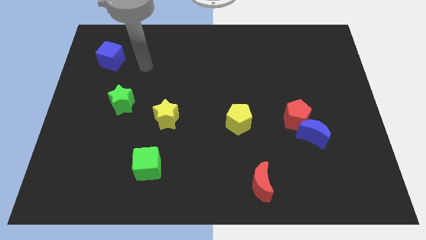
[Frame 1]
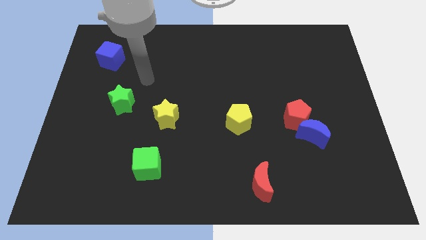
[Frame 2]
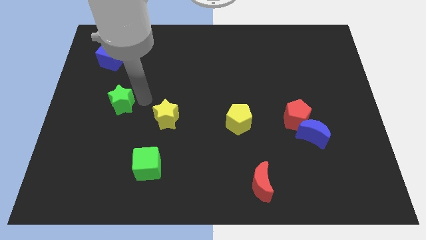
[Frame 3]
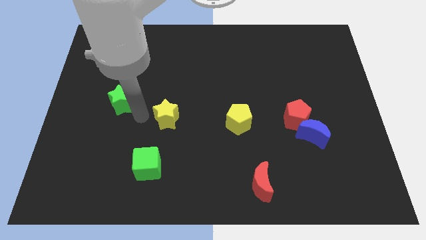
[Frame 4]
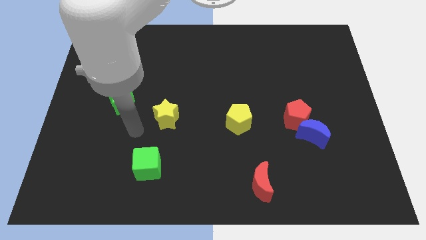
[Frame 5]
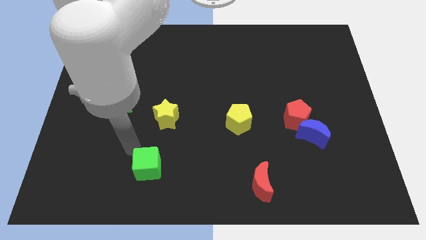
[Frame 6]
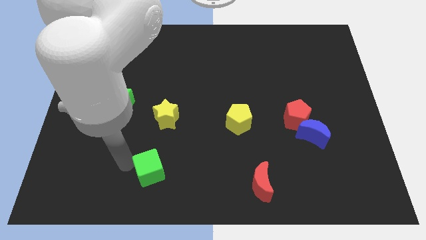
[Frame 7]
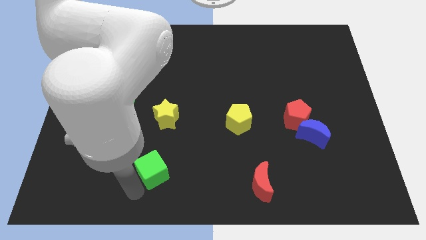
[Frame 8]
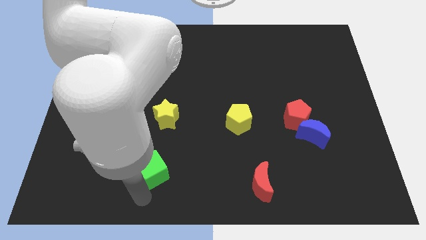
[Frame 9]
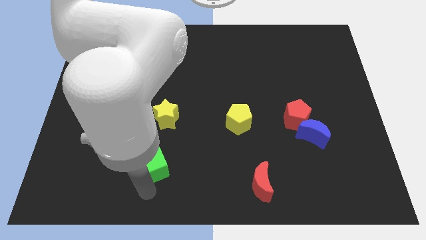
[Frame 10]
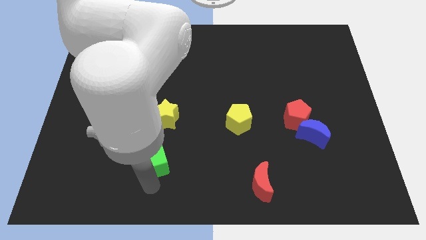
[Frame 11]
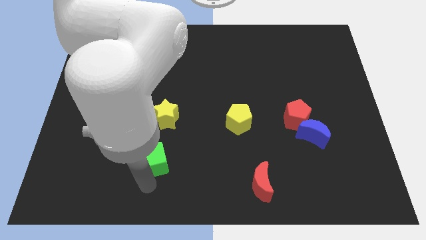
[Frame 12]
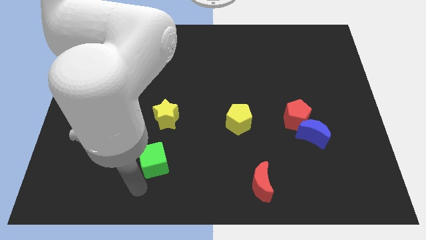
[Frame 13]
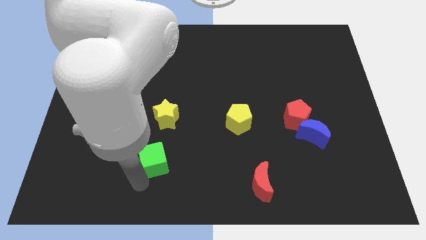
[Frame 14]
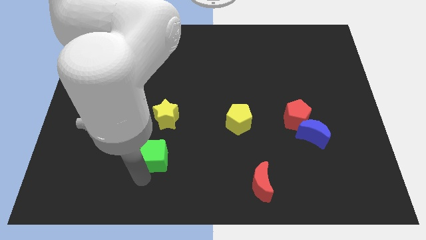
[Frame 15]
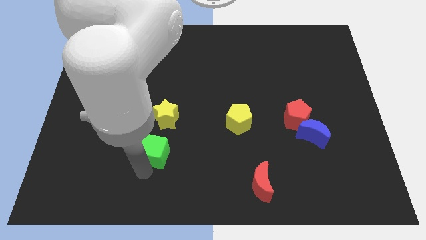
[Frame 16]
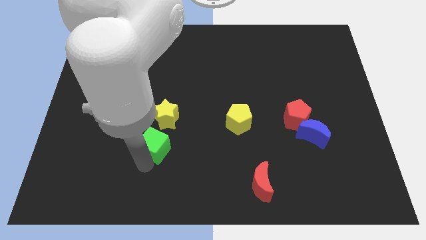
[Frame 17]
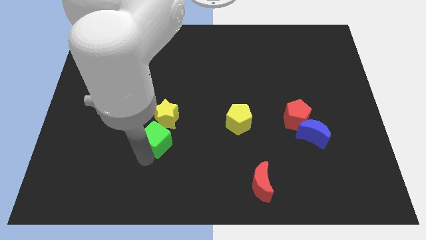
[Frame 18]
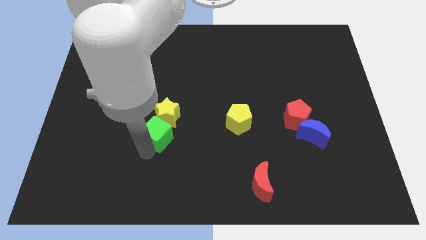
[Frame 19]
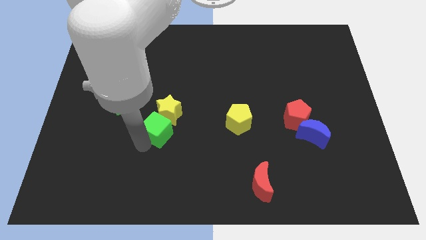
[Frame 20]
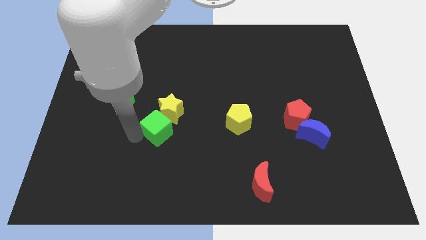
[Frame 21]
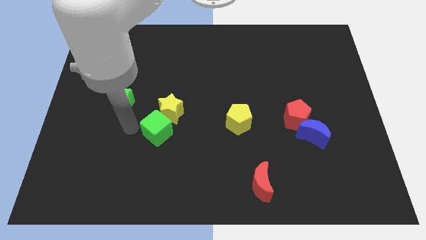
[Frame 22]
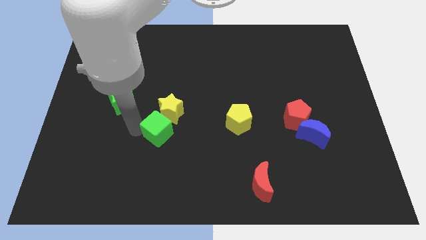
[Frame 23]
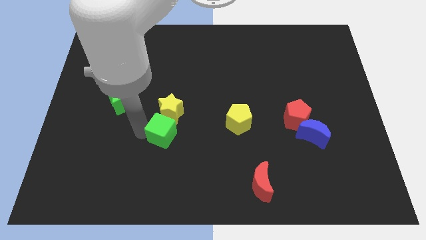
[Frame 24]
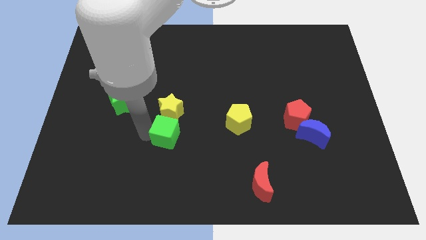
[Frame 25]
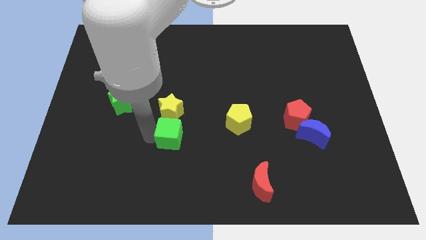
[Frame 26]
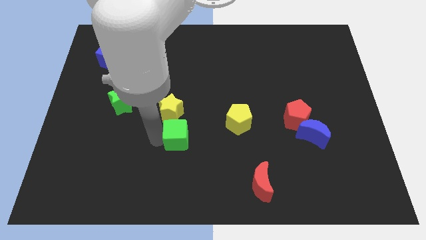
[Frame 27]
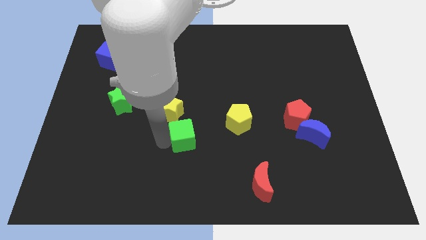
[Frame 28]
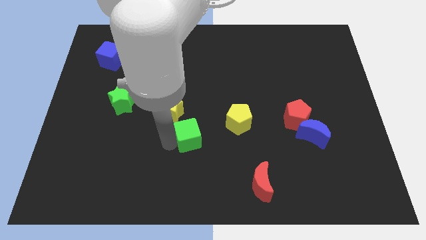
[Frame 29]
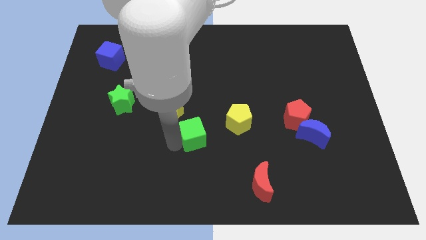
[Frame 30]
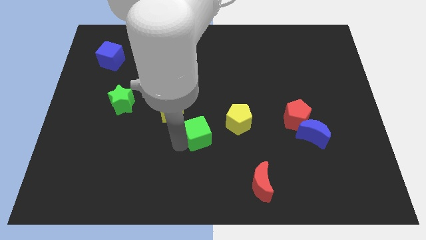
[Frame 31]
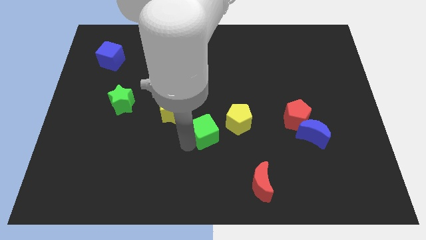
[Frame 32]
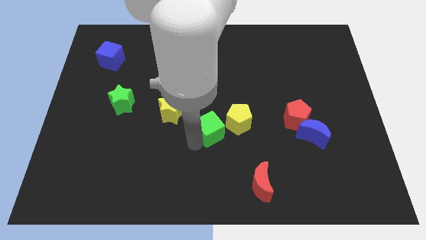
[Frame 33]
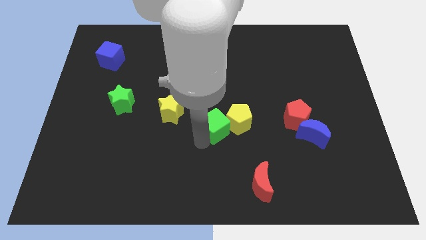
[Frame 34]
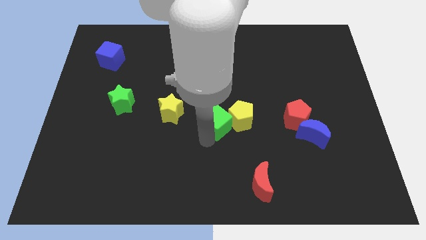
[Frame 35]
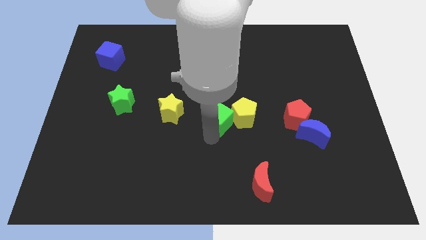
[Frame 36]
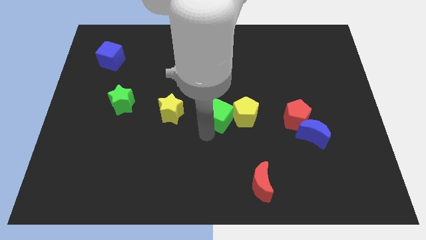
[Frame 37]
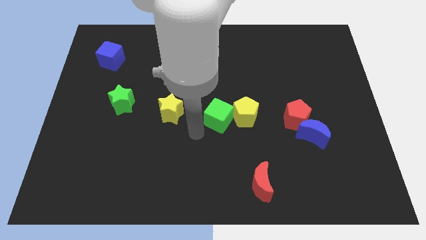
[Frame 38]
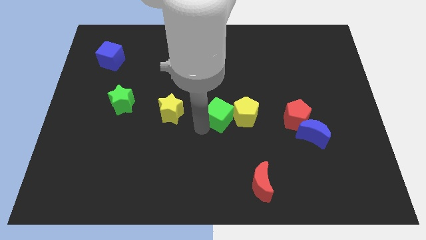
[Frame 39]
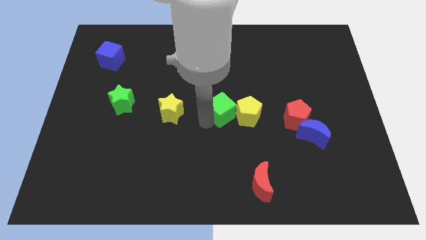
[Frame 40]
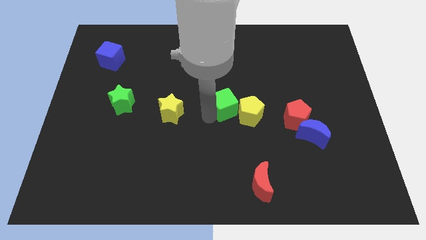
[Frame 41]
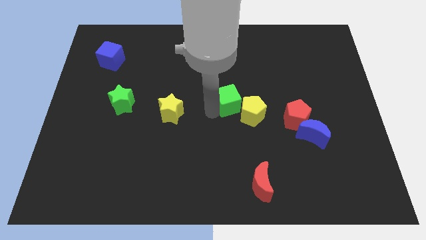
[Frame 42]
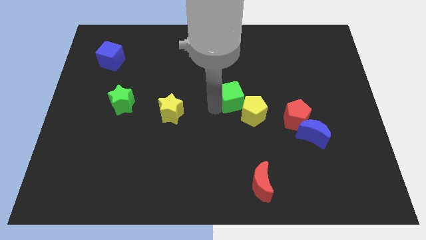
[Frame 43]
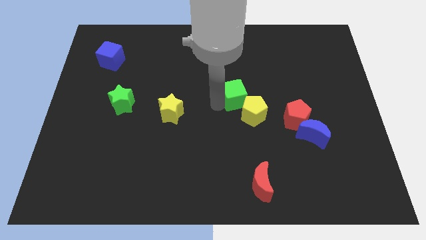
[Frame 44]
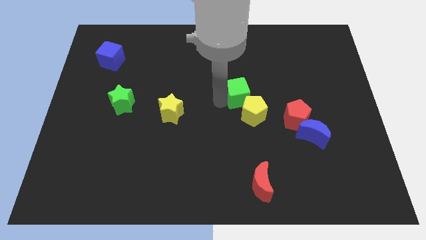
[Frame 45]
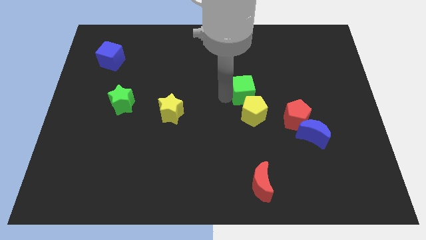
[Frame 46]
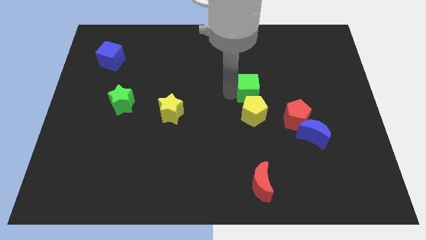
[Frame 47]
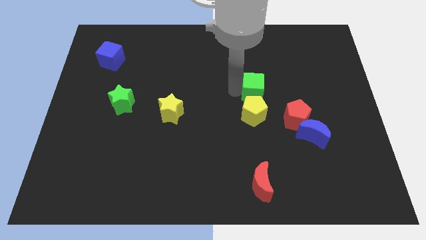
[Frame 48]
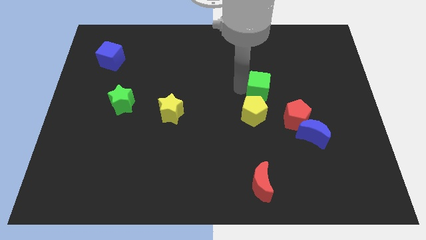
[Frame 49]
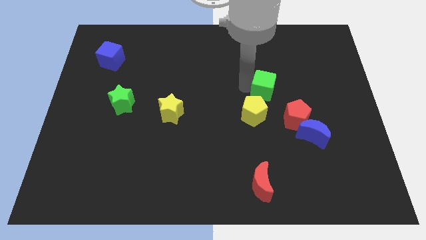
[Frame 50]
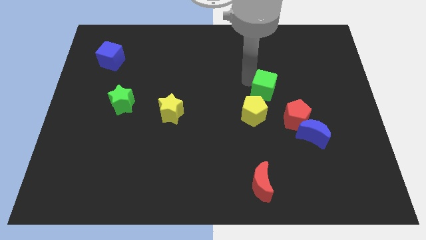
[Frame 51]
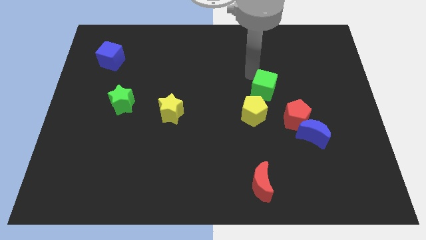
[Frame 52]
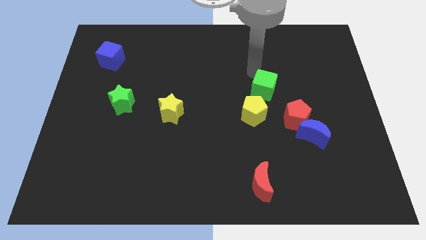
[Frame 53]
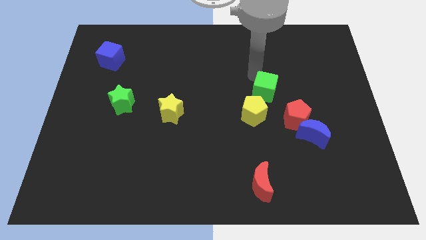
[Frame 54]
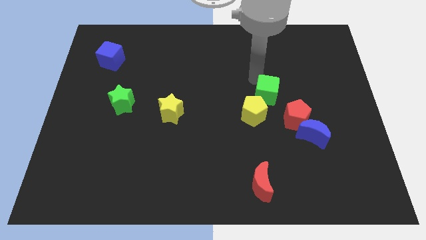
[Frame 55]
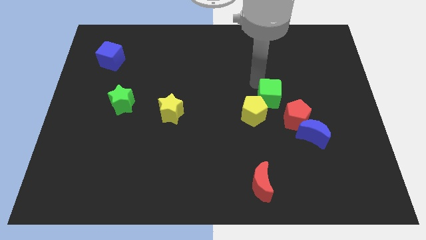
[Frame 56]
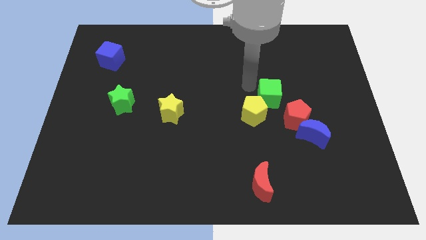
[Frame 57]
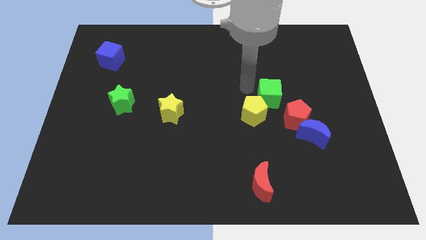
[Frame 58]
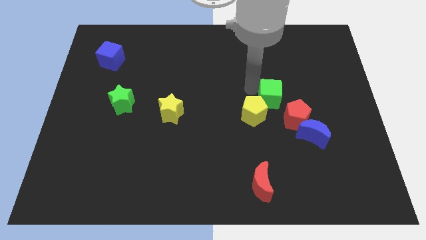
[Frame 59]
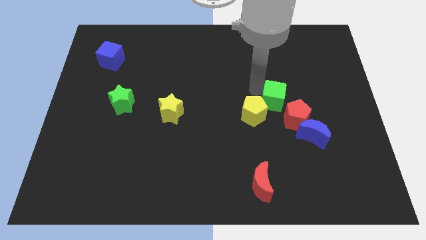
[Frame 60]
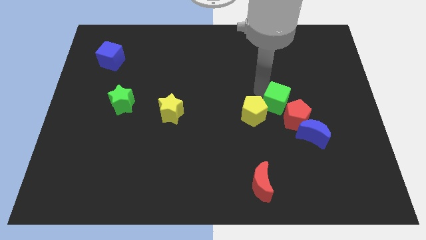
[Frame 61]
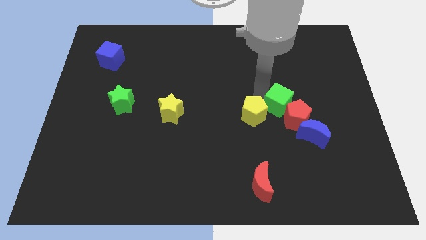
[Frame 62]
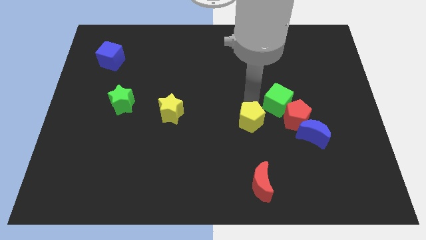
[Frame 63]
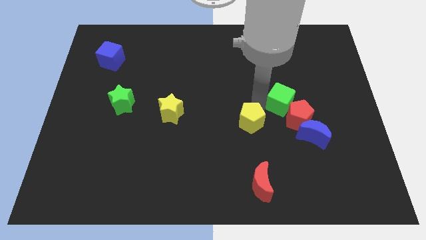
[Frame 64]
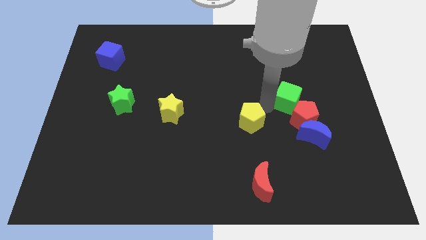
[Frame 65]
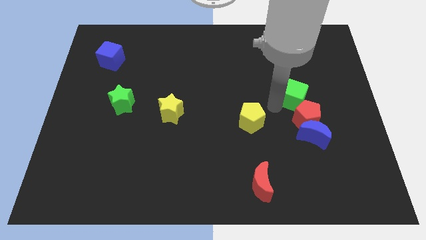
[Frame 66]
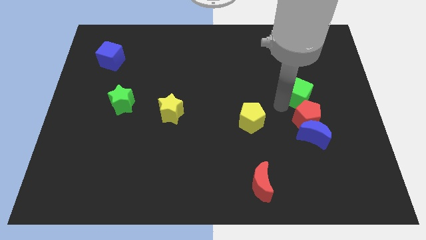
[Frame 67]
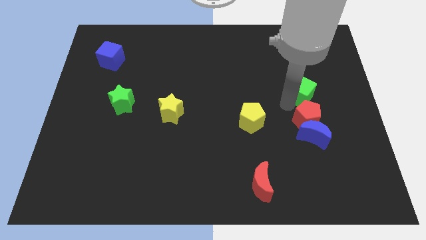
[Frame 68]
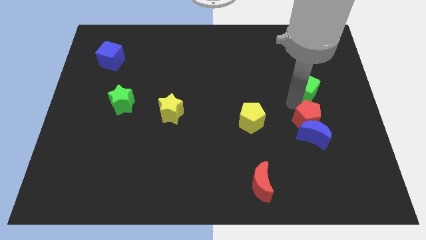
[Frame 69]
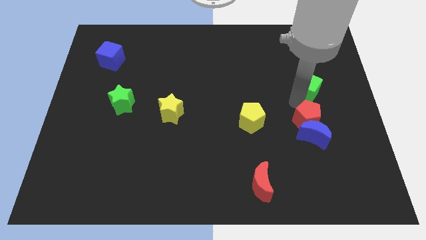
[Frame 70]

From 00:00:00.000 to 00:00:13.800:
slide the green cube to the top right of the red pentagon
